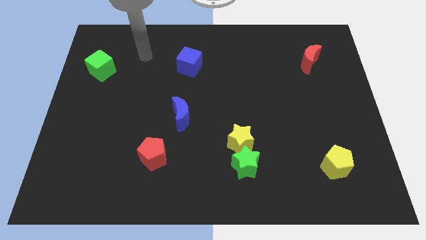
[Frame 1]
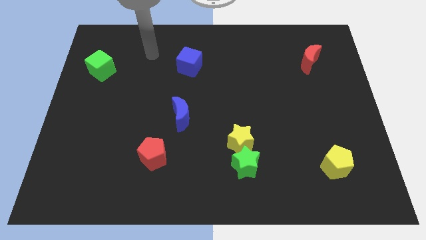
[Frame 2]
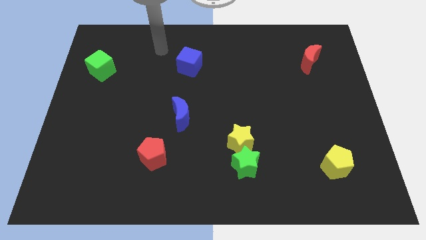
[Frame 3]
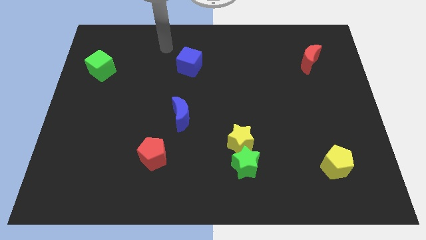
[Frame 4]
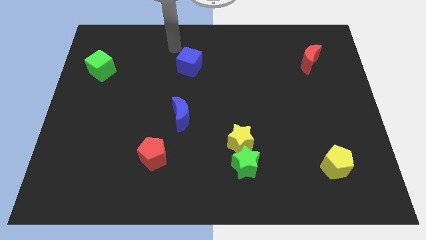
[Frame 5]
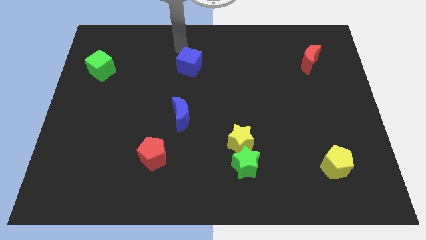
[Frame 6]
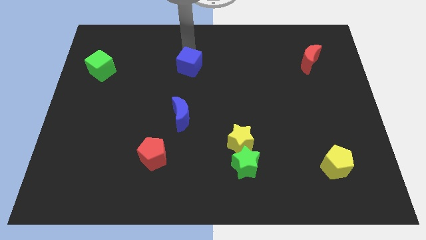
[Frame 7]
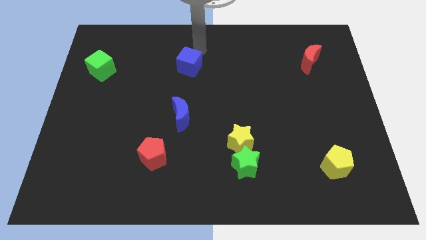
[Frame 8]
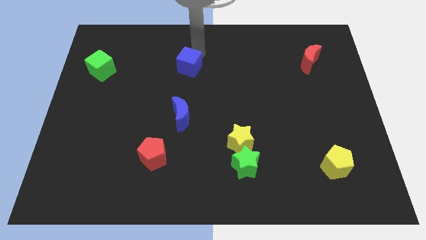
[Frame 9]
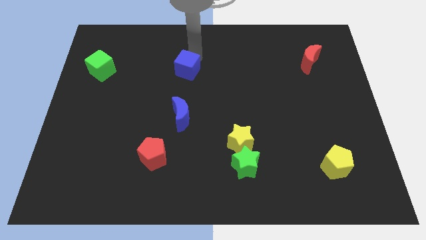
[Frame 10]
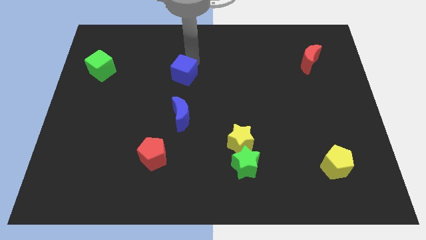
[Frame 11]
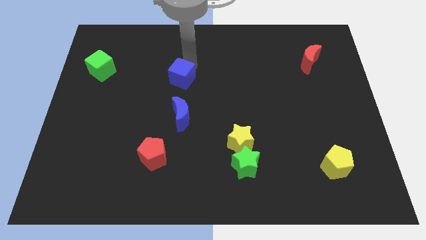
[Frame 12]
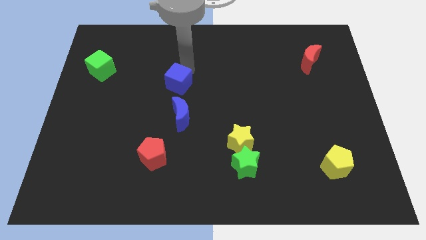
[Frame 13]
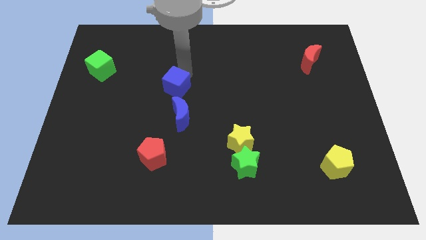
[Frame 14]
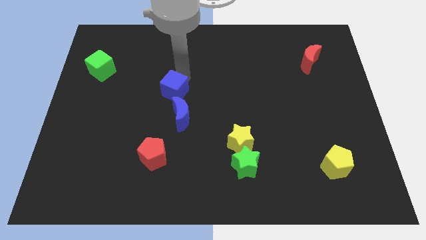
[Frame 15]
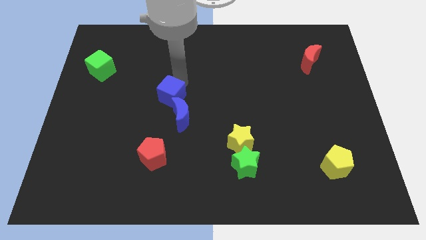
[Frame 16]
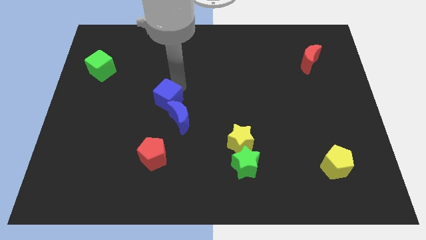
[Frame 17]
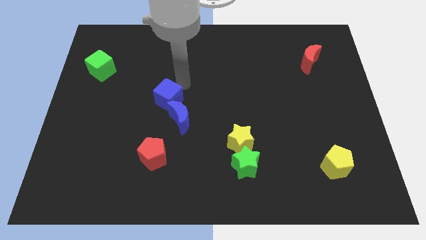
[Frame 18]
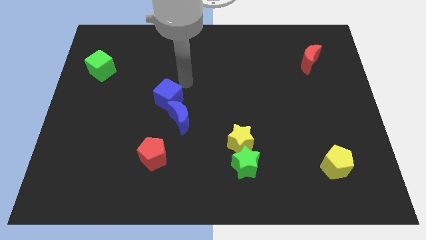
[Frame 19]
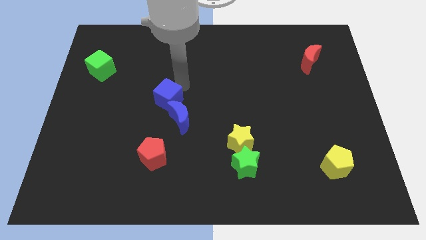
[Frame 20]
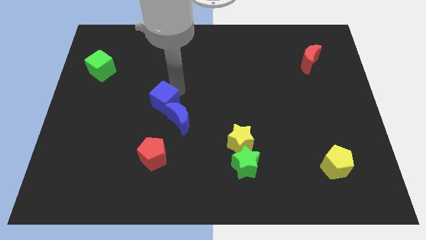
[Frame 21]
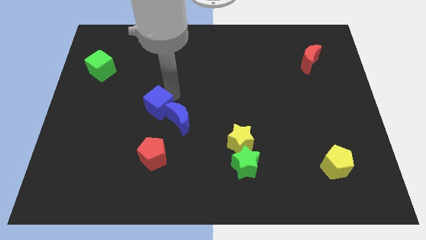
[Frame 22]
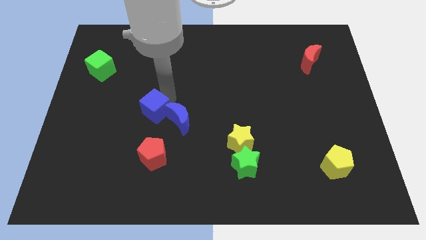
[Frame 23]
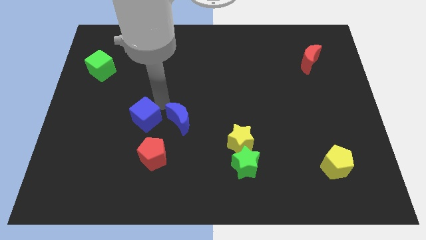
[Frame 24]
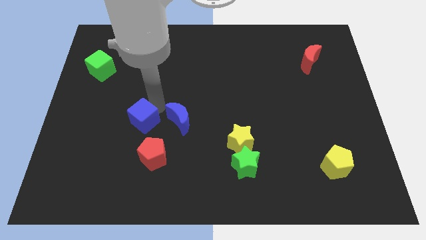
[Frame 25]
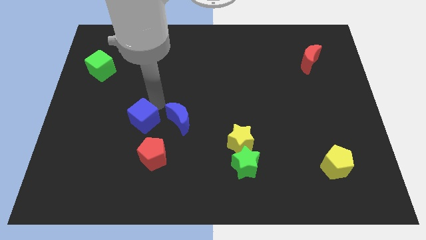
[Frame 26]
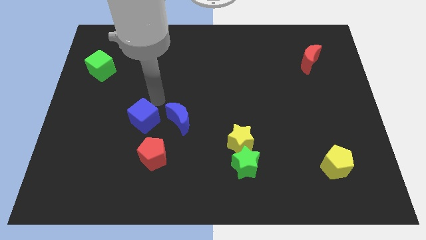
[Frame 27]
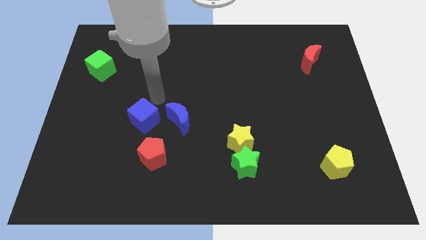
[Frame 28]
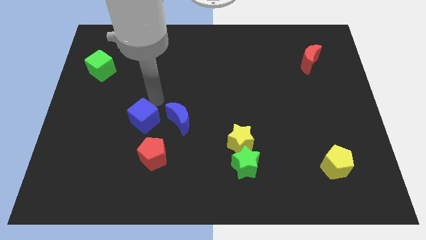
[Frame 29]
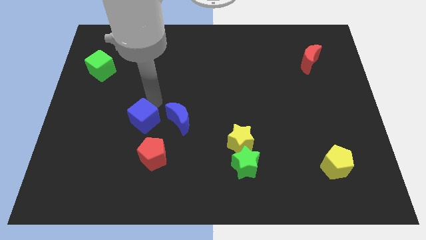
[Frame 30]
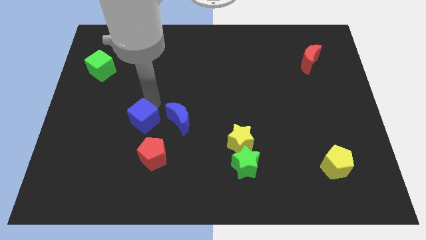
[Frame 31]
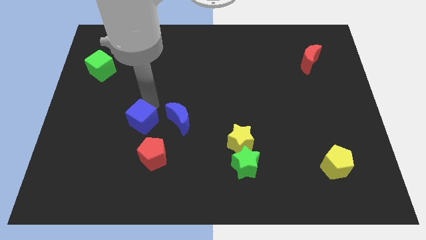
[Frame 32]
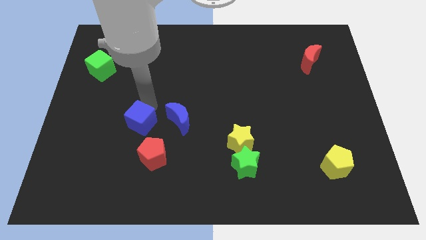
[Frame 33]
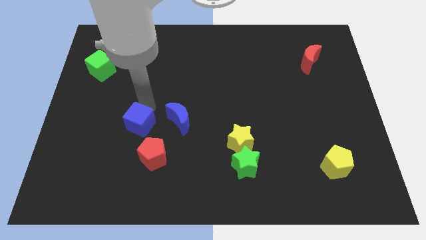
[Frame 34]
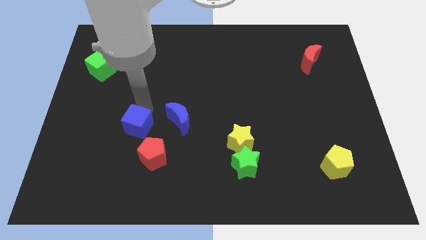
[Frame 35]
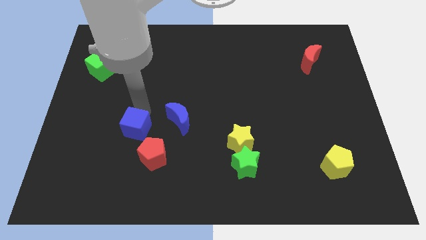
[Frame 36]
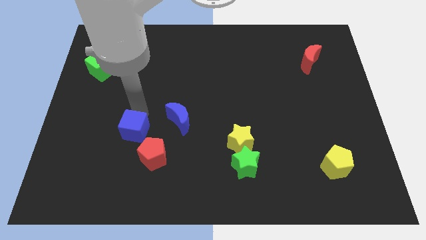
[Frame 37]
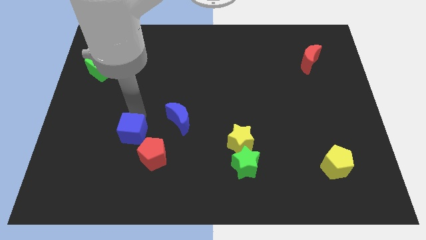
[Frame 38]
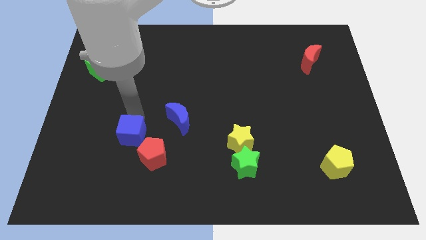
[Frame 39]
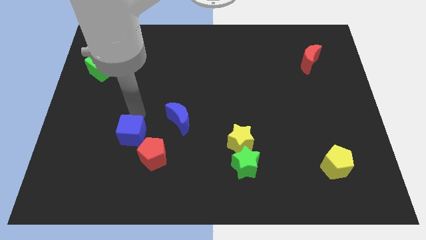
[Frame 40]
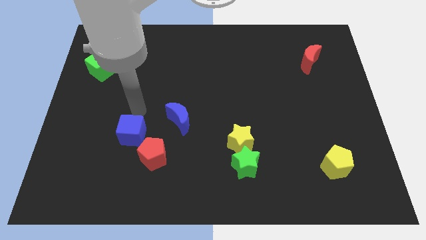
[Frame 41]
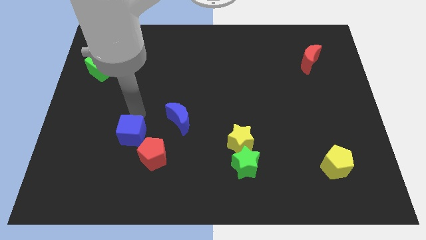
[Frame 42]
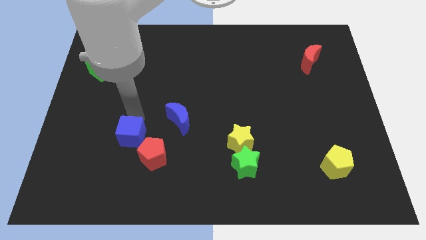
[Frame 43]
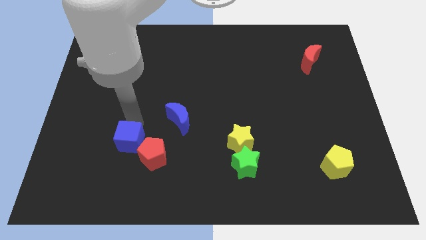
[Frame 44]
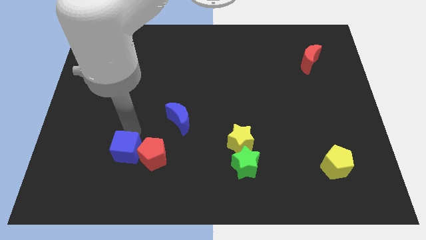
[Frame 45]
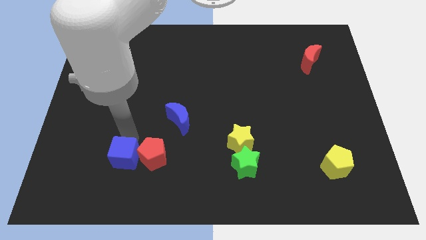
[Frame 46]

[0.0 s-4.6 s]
slide the blue cube to the bottom left side of the red pentagon

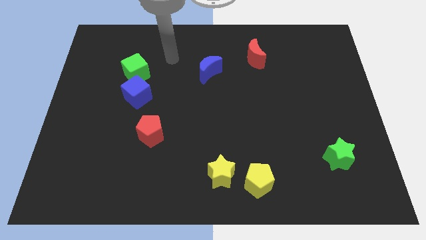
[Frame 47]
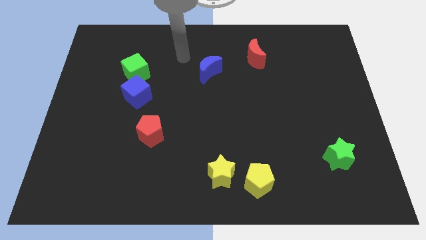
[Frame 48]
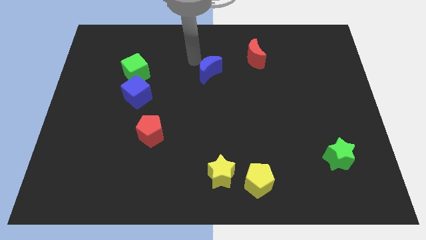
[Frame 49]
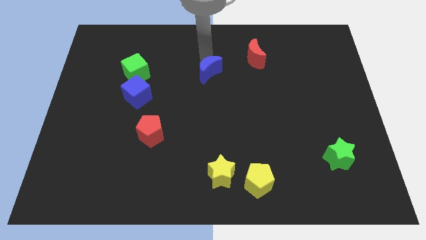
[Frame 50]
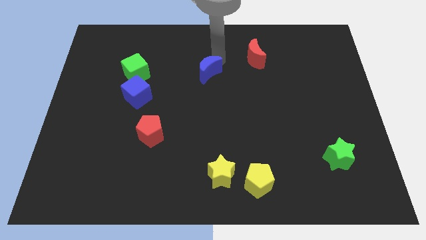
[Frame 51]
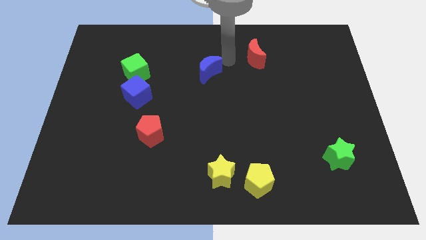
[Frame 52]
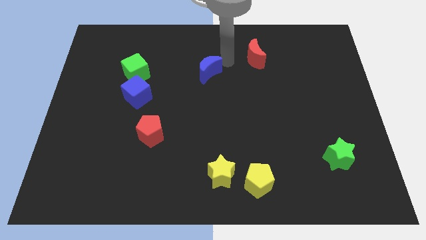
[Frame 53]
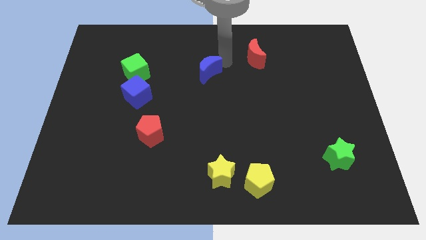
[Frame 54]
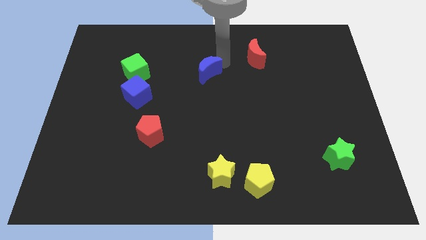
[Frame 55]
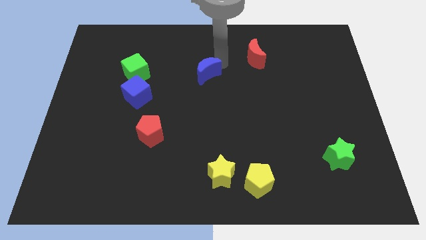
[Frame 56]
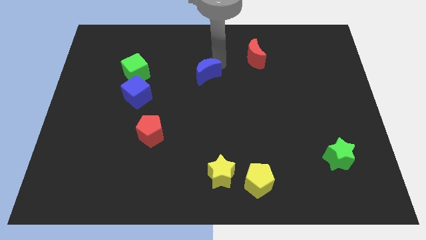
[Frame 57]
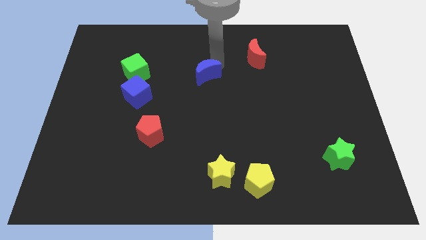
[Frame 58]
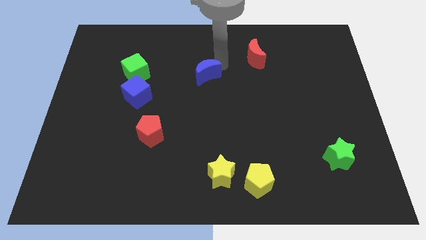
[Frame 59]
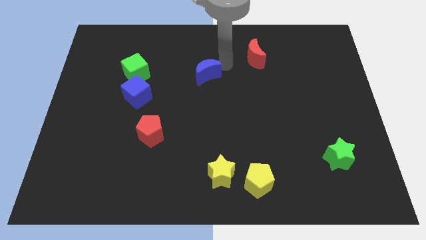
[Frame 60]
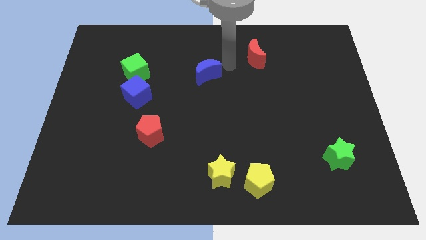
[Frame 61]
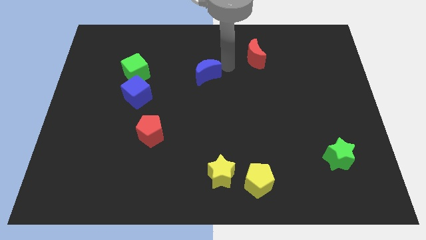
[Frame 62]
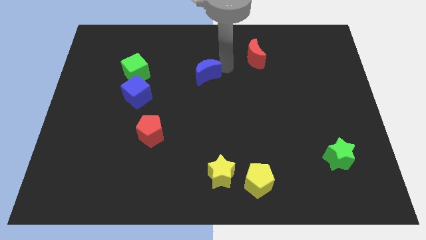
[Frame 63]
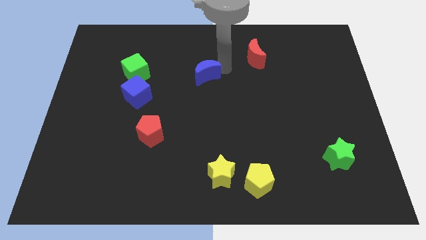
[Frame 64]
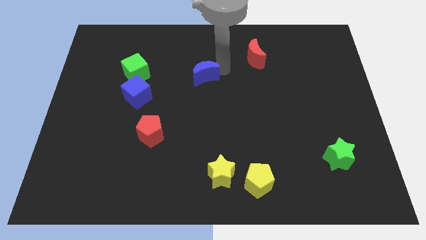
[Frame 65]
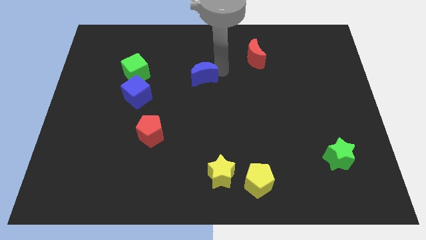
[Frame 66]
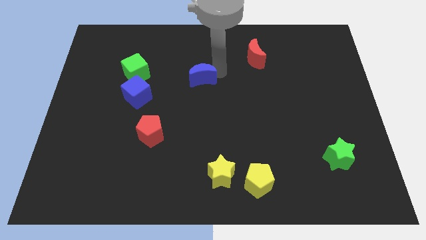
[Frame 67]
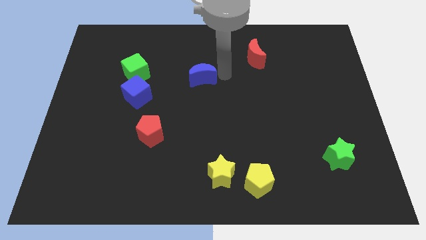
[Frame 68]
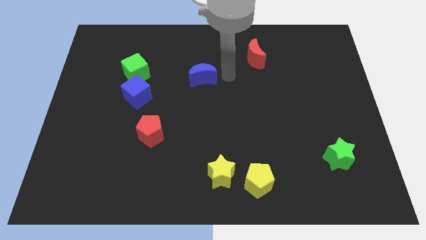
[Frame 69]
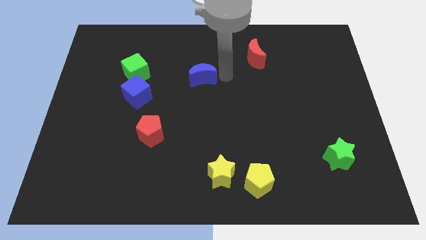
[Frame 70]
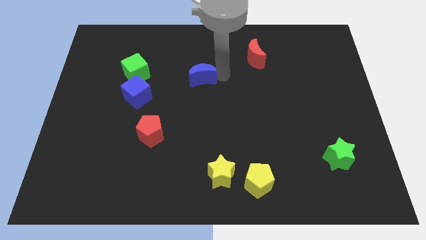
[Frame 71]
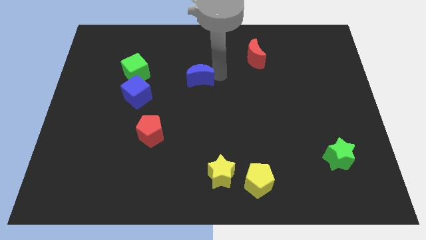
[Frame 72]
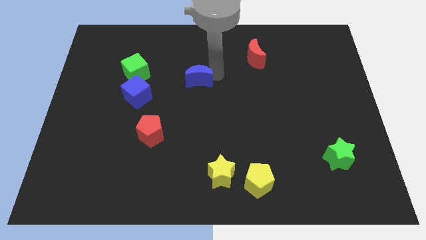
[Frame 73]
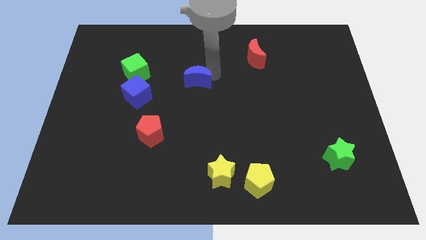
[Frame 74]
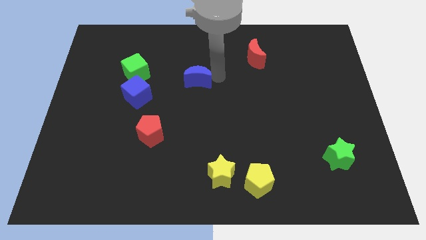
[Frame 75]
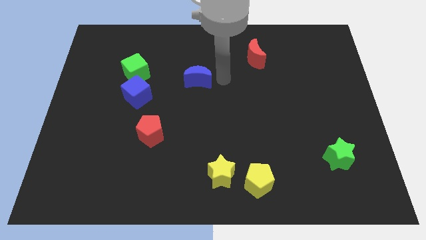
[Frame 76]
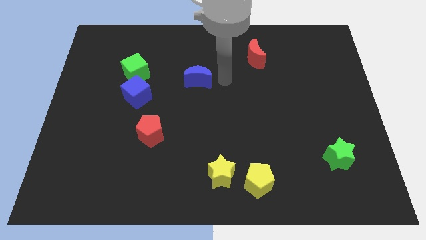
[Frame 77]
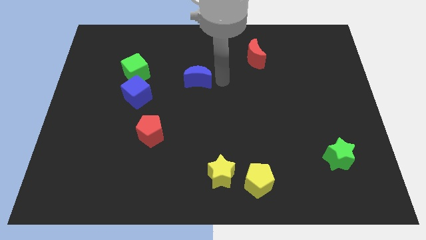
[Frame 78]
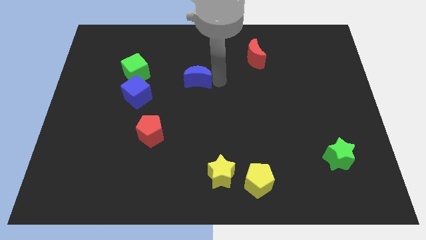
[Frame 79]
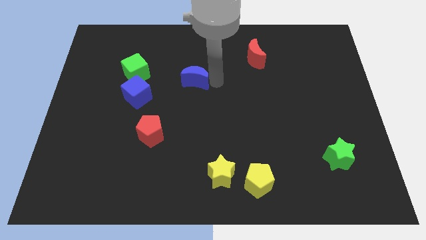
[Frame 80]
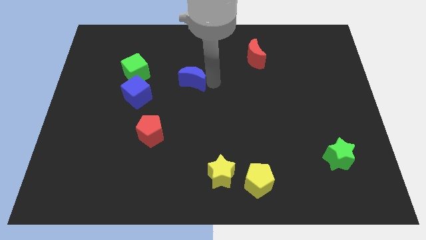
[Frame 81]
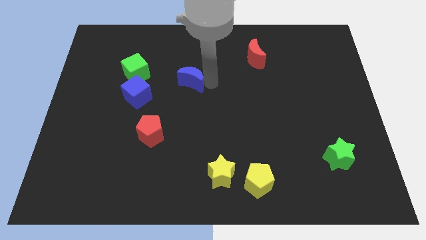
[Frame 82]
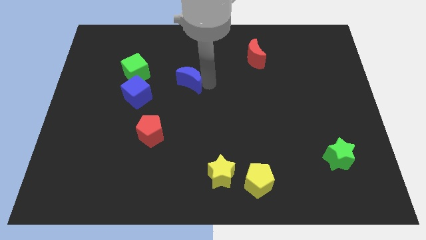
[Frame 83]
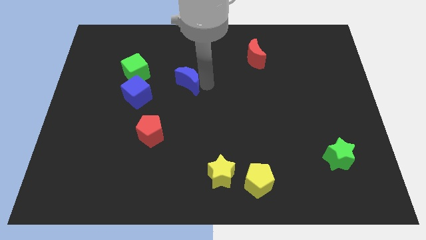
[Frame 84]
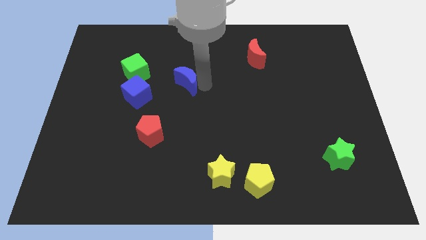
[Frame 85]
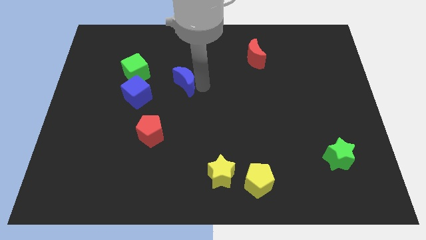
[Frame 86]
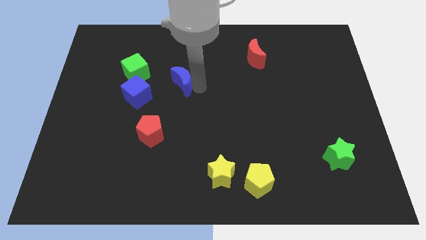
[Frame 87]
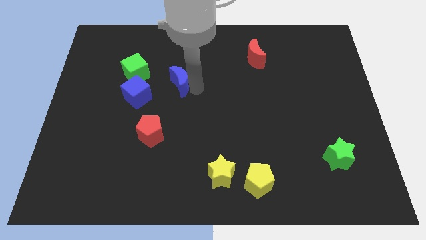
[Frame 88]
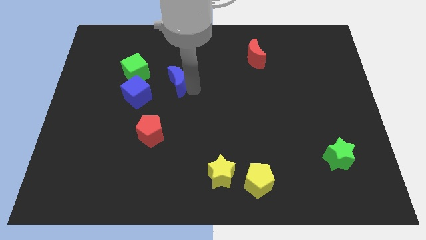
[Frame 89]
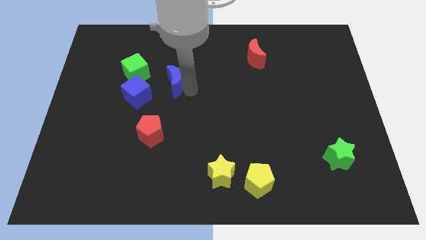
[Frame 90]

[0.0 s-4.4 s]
put the blue moon diagonally down and to the right of the green cube
